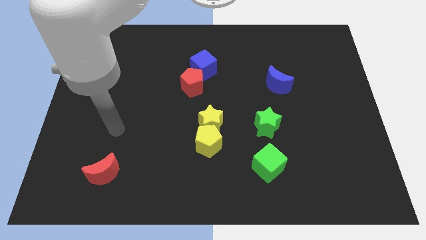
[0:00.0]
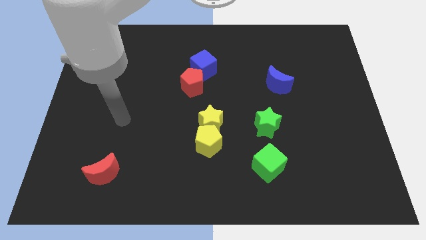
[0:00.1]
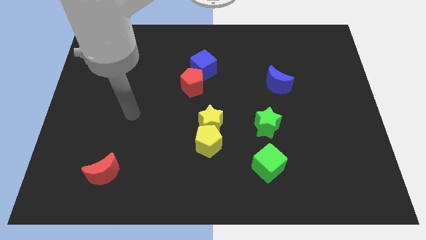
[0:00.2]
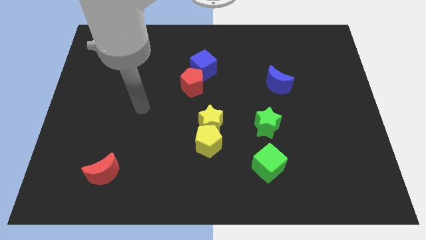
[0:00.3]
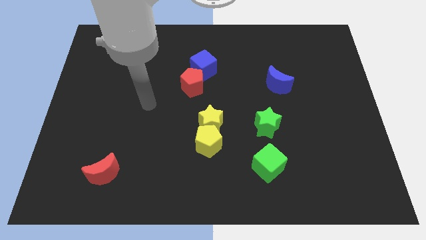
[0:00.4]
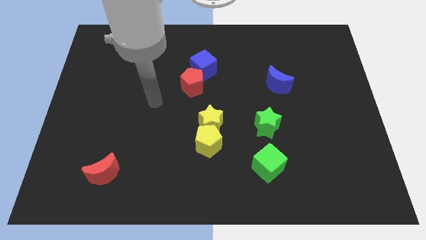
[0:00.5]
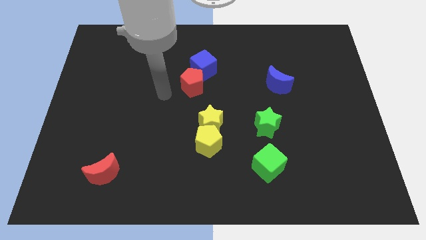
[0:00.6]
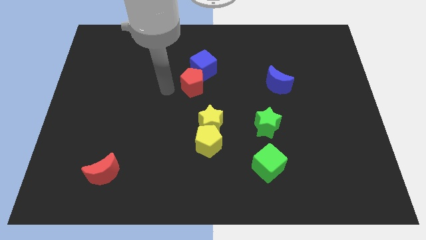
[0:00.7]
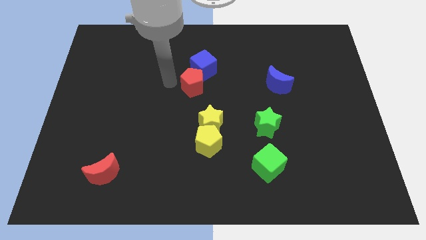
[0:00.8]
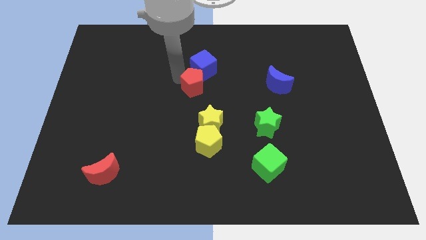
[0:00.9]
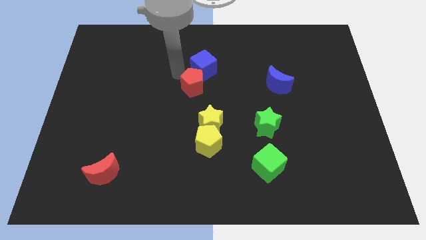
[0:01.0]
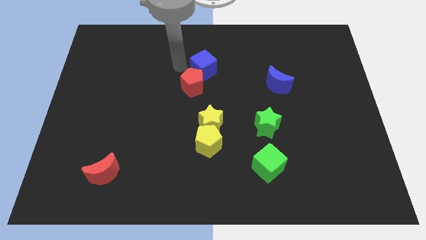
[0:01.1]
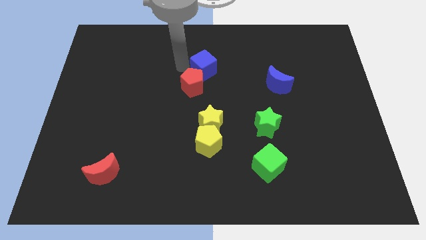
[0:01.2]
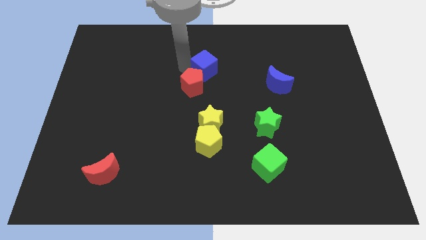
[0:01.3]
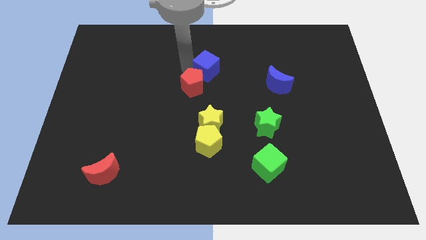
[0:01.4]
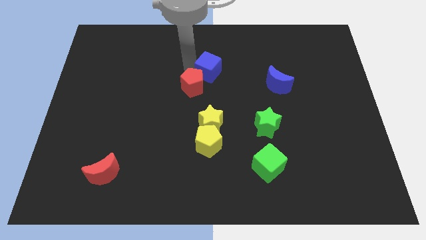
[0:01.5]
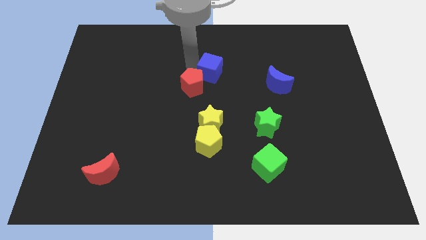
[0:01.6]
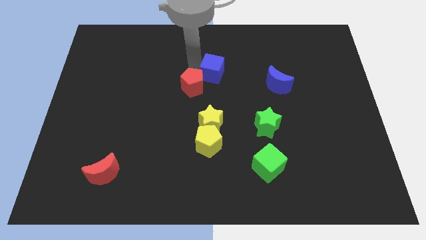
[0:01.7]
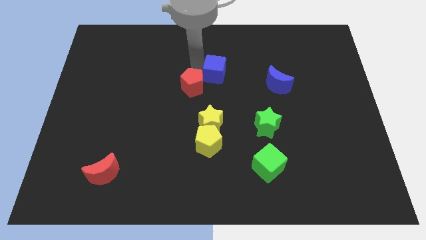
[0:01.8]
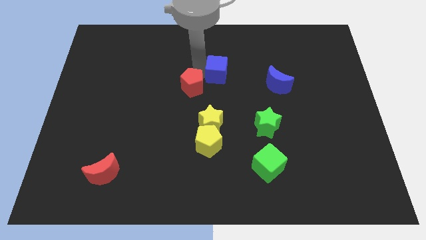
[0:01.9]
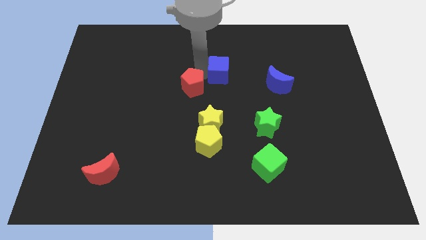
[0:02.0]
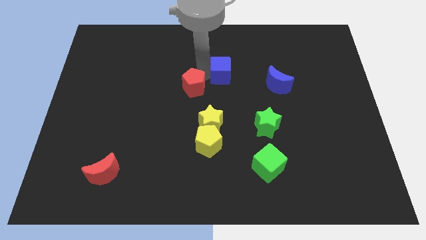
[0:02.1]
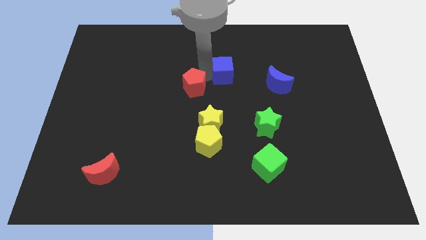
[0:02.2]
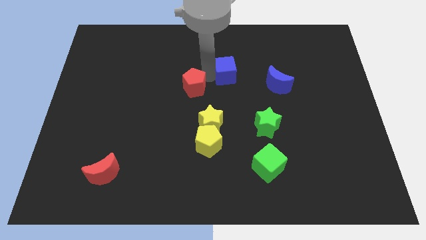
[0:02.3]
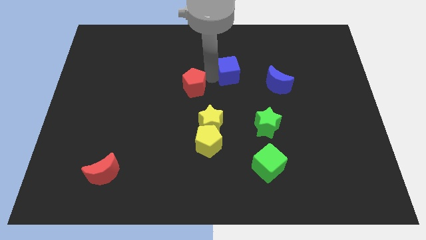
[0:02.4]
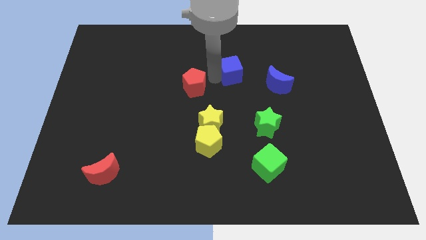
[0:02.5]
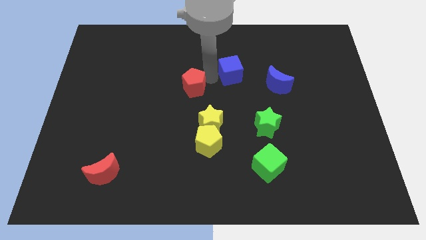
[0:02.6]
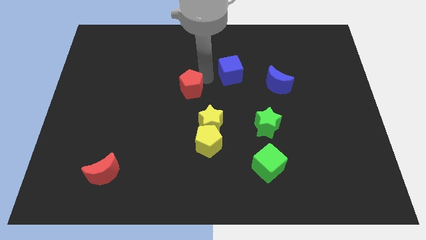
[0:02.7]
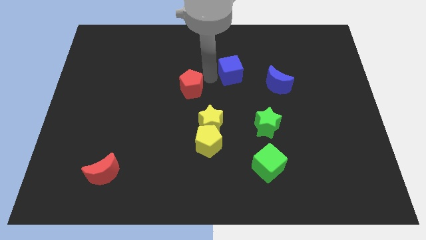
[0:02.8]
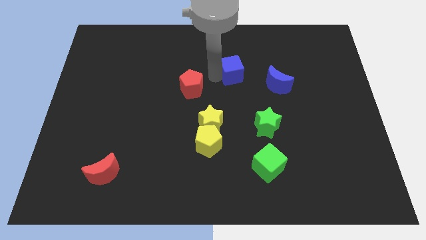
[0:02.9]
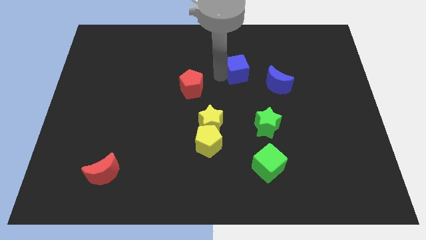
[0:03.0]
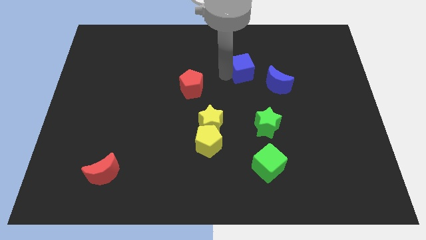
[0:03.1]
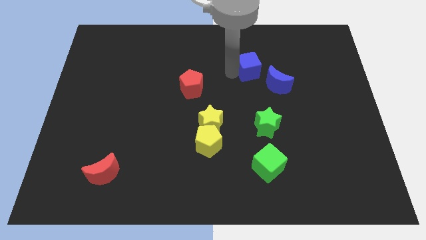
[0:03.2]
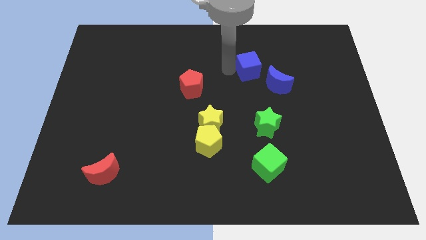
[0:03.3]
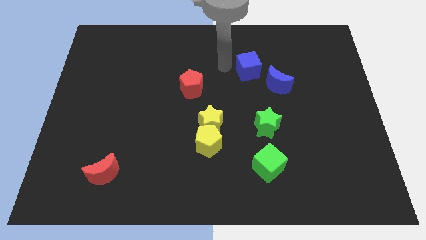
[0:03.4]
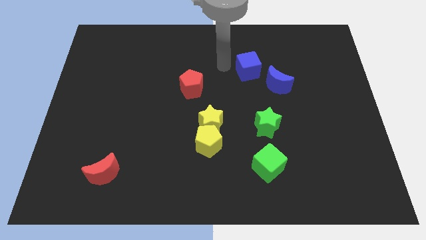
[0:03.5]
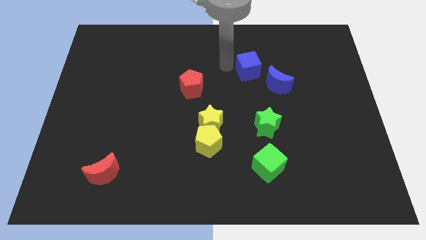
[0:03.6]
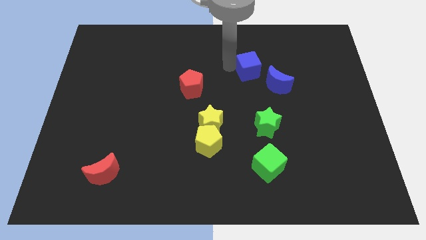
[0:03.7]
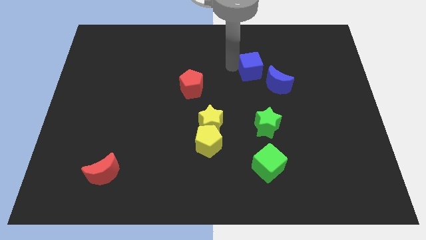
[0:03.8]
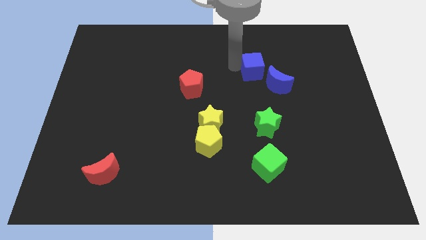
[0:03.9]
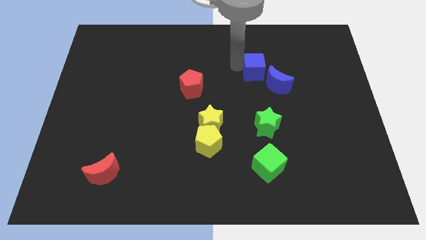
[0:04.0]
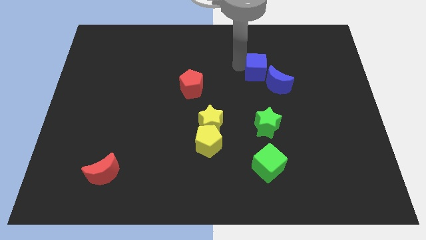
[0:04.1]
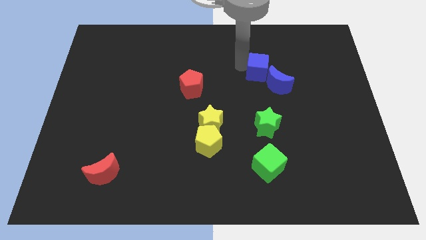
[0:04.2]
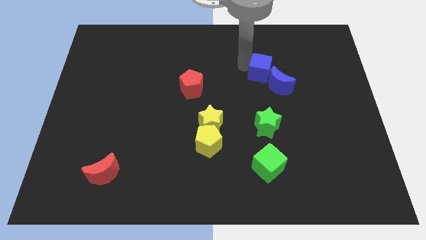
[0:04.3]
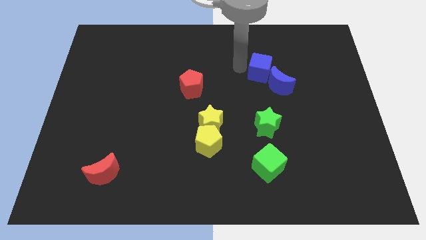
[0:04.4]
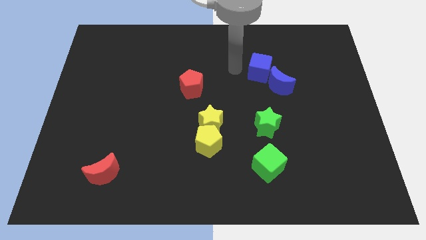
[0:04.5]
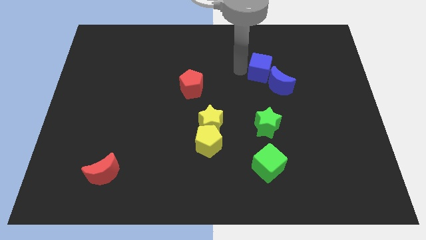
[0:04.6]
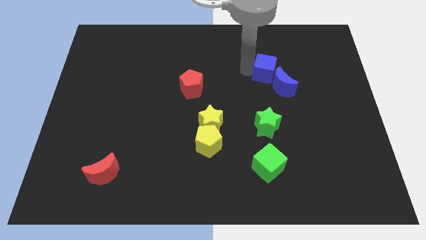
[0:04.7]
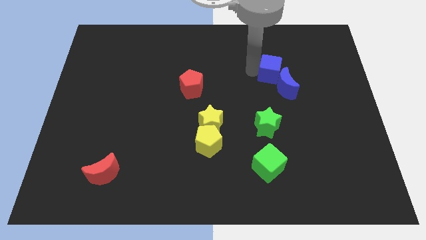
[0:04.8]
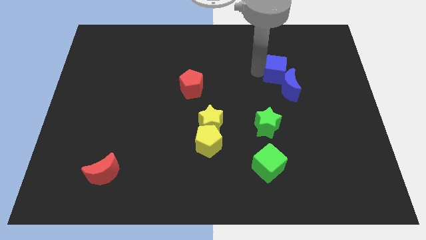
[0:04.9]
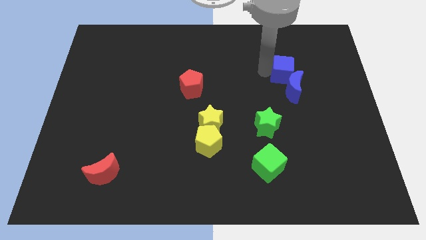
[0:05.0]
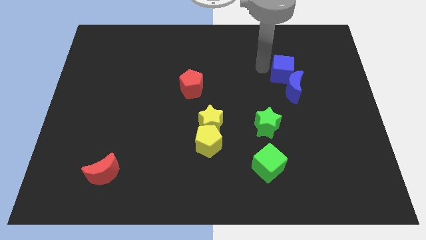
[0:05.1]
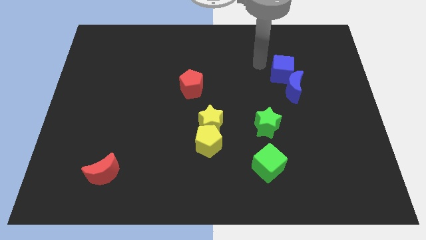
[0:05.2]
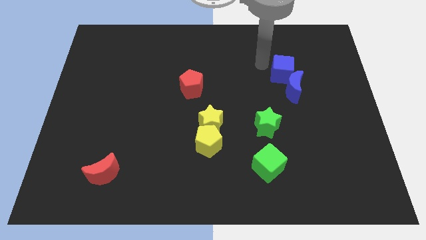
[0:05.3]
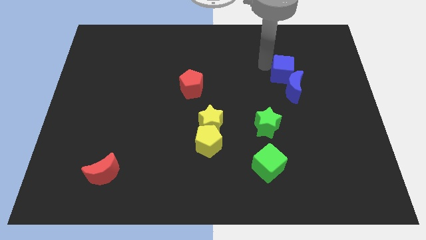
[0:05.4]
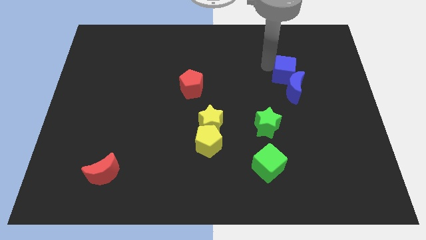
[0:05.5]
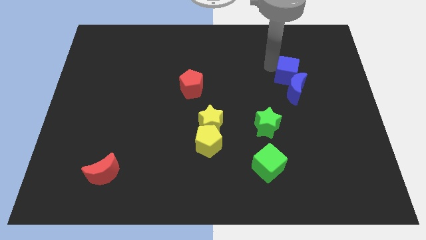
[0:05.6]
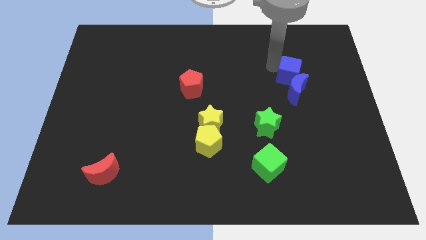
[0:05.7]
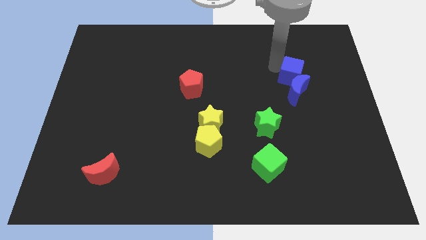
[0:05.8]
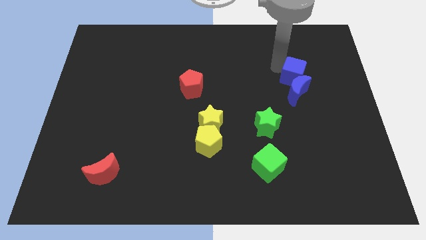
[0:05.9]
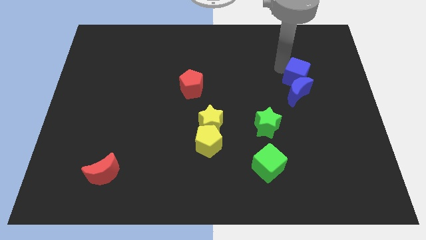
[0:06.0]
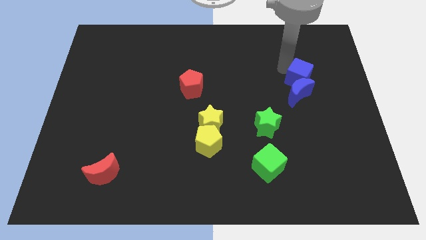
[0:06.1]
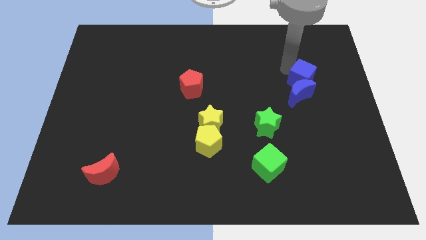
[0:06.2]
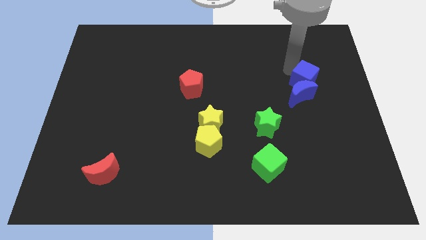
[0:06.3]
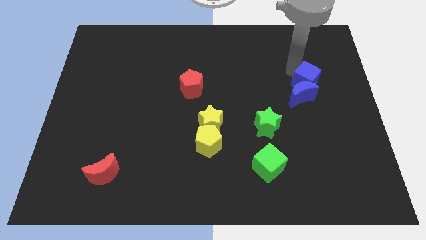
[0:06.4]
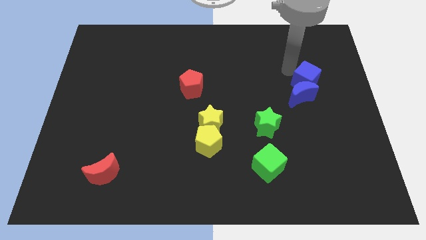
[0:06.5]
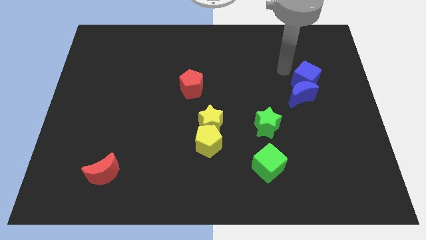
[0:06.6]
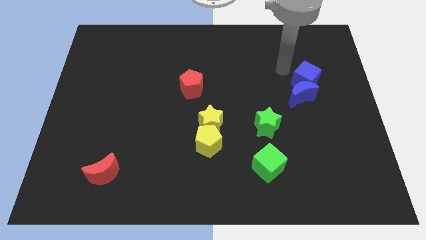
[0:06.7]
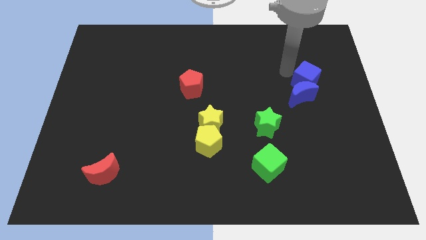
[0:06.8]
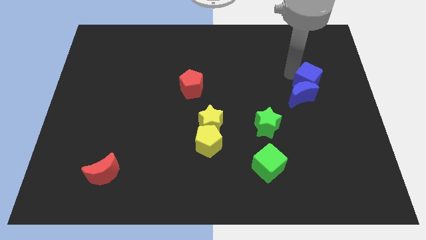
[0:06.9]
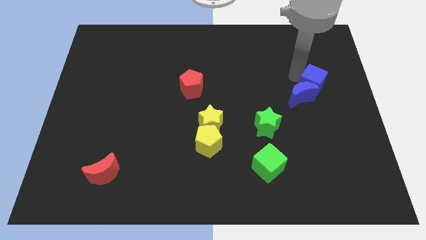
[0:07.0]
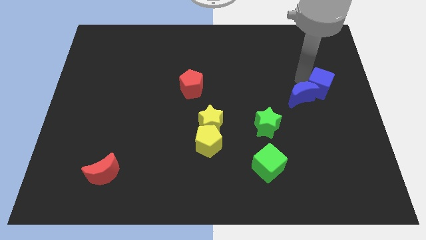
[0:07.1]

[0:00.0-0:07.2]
push the blue cube to the right side
